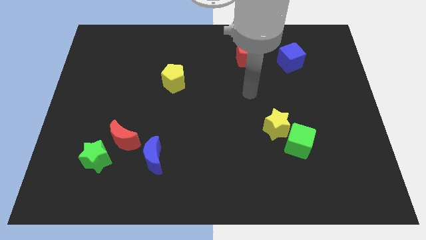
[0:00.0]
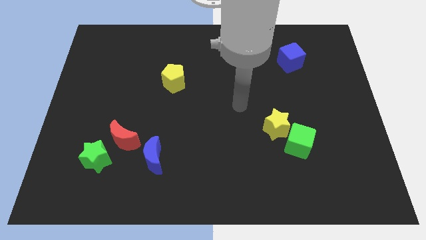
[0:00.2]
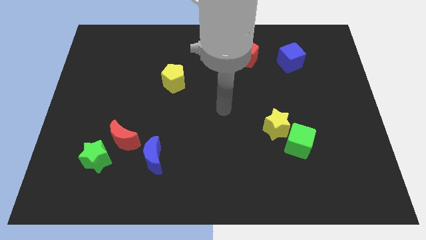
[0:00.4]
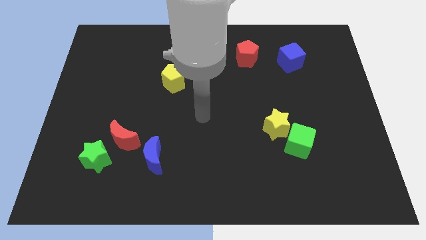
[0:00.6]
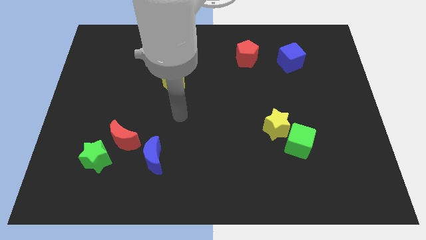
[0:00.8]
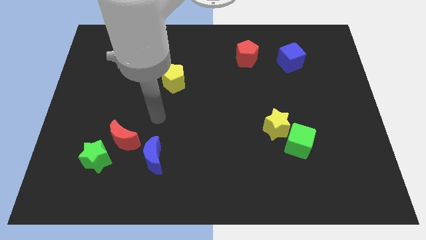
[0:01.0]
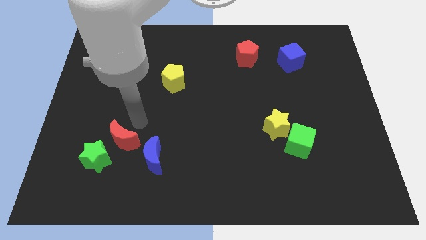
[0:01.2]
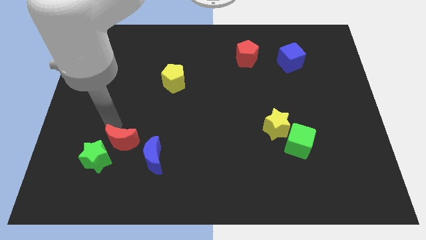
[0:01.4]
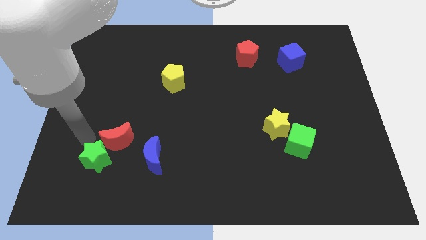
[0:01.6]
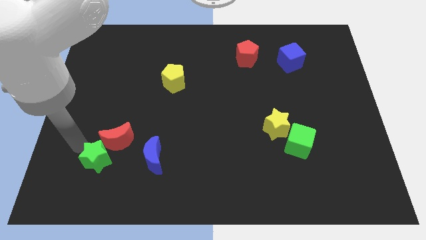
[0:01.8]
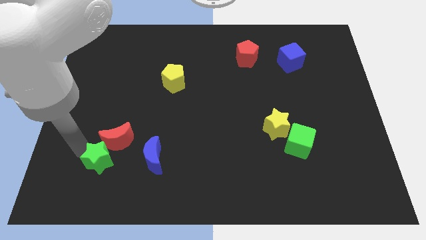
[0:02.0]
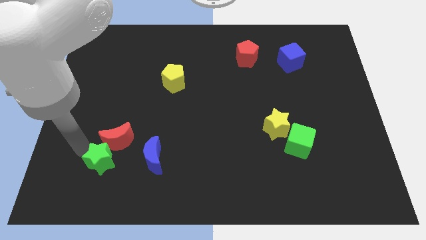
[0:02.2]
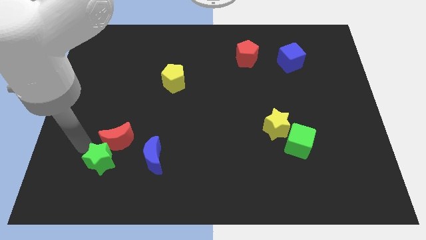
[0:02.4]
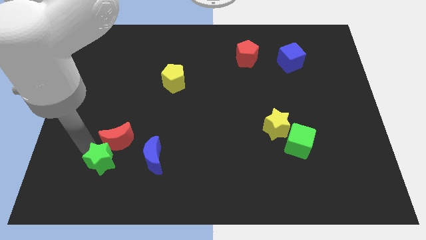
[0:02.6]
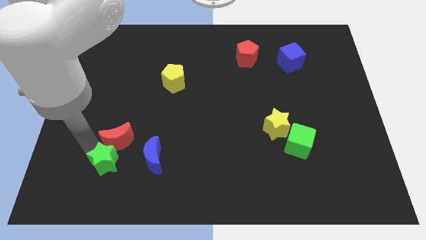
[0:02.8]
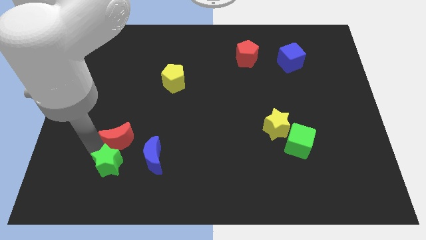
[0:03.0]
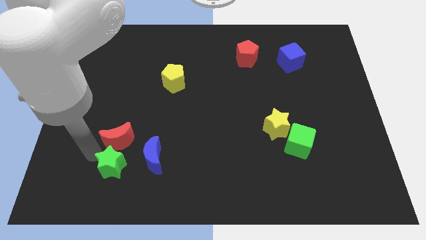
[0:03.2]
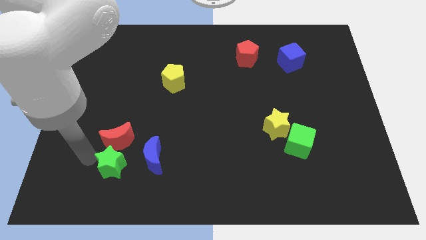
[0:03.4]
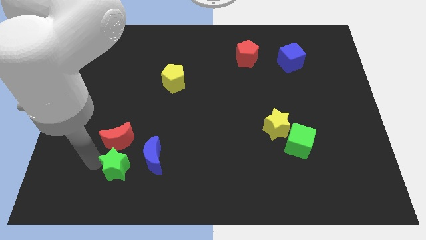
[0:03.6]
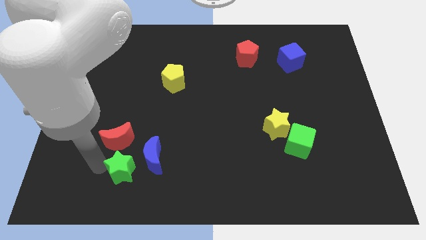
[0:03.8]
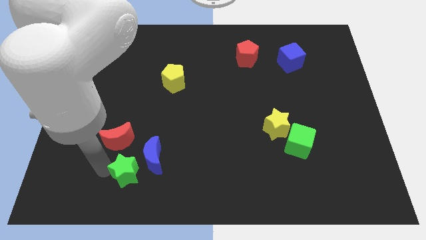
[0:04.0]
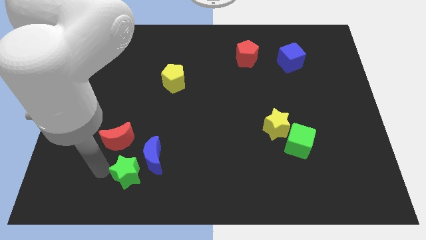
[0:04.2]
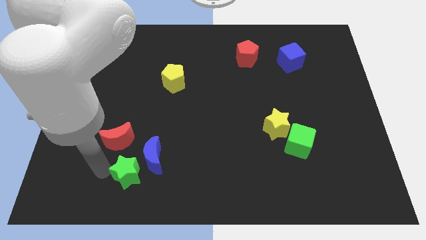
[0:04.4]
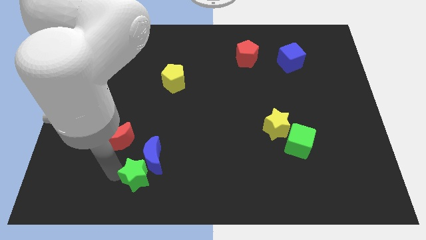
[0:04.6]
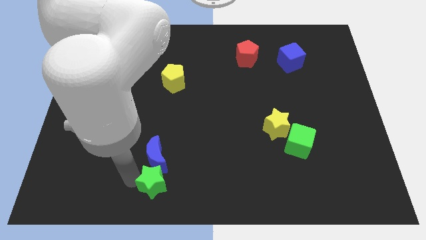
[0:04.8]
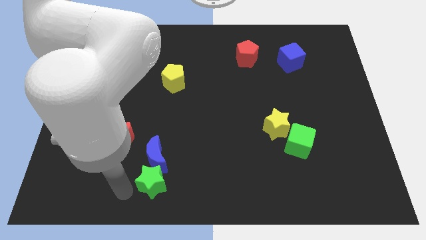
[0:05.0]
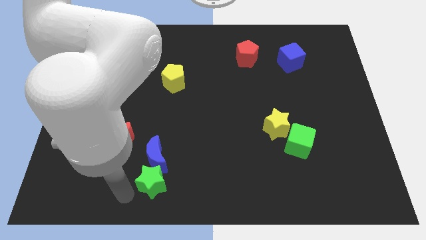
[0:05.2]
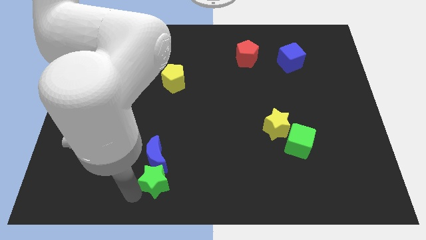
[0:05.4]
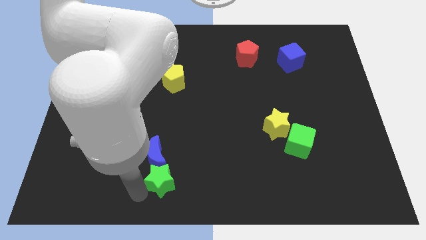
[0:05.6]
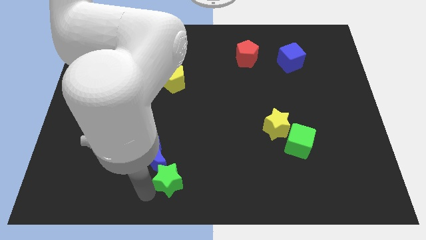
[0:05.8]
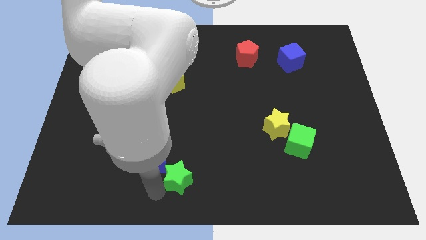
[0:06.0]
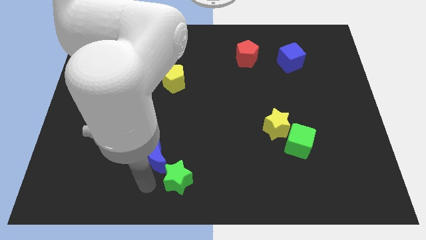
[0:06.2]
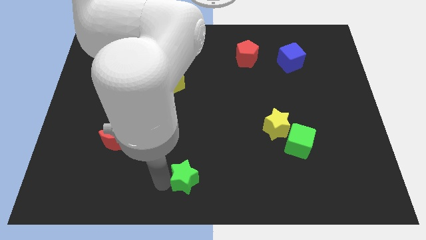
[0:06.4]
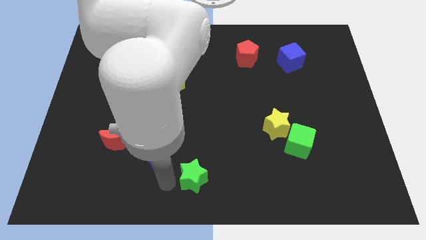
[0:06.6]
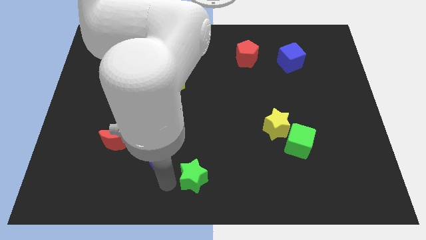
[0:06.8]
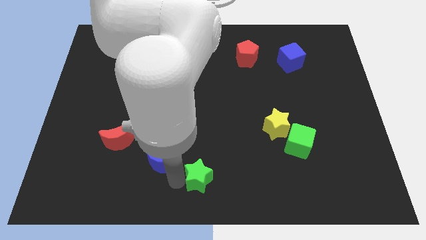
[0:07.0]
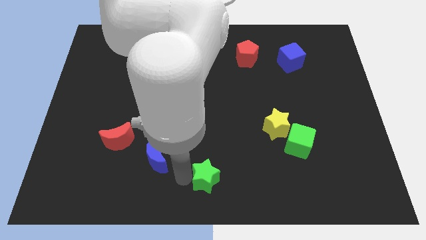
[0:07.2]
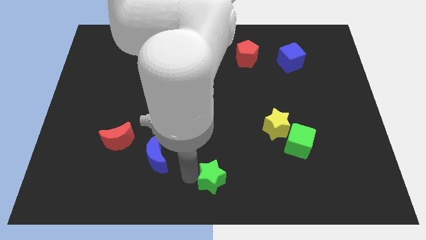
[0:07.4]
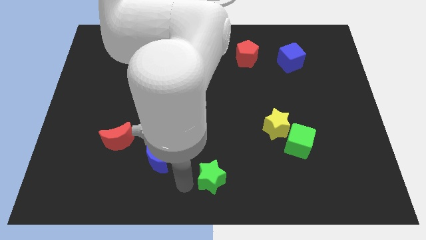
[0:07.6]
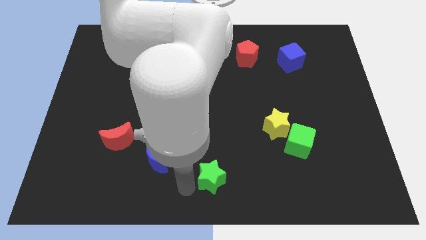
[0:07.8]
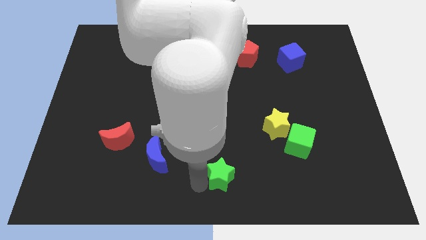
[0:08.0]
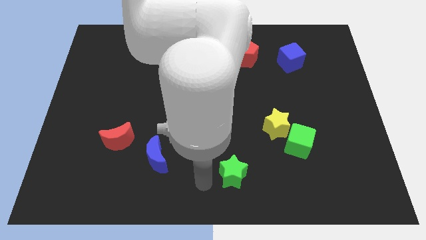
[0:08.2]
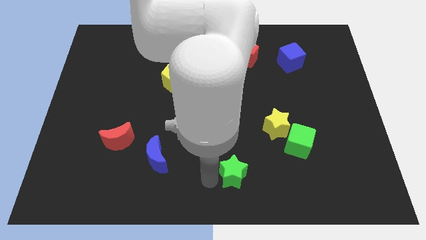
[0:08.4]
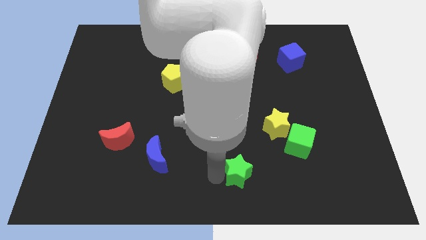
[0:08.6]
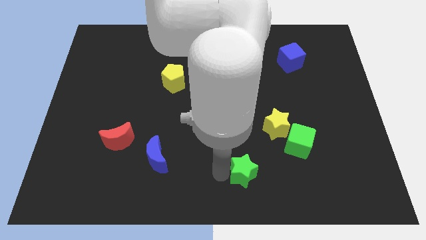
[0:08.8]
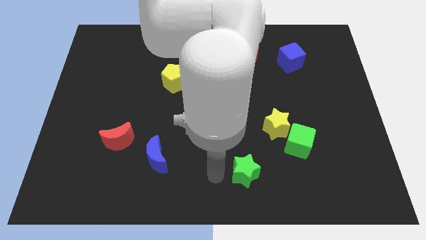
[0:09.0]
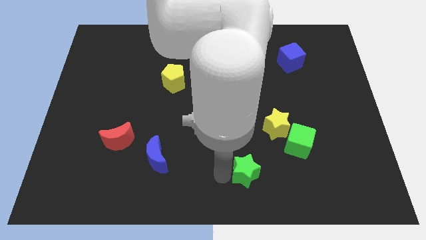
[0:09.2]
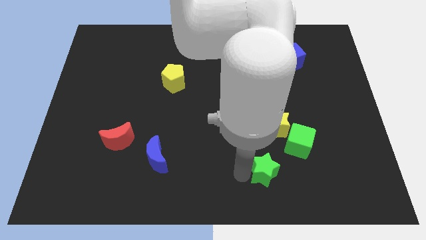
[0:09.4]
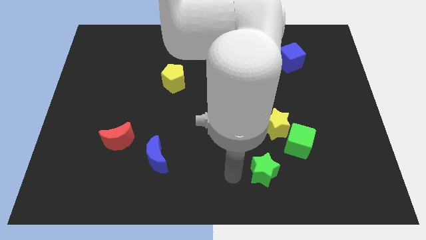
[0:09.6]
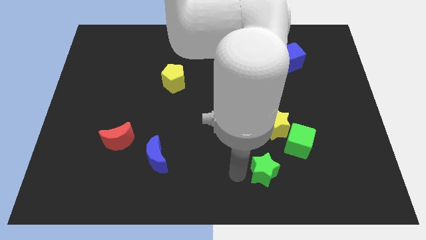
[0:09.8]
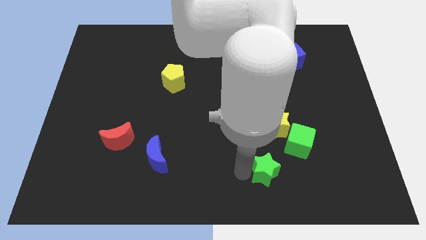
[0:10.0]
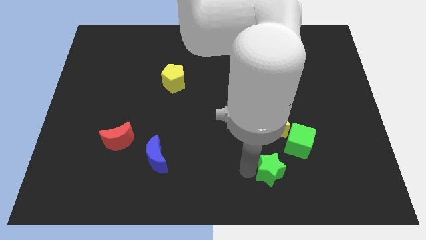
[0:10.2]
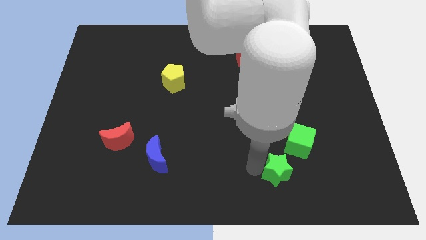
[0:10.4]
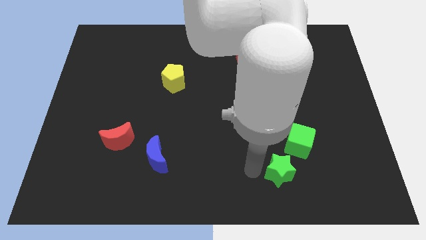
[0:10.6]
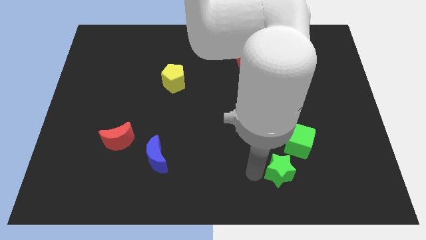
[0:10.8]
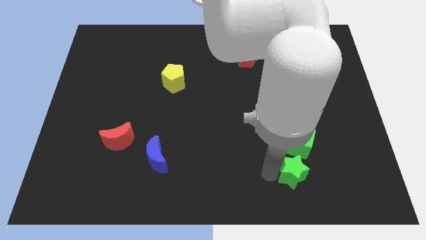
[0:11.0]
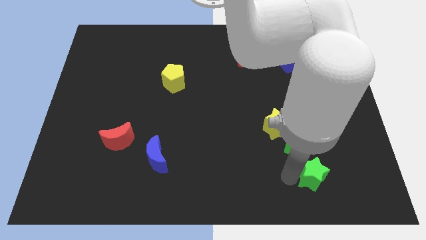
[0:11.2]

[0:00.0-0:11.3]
put the green star to the bottom right of the green cube

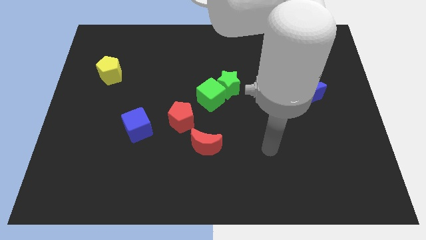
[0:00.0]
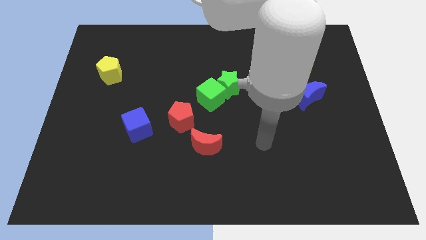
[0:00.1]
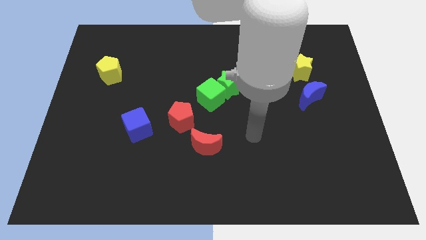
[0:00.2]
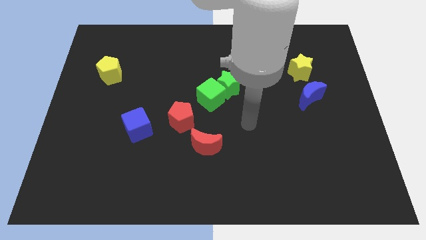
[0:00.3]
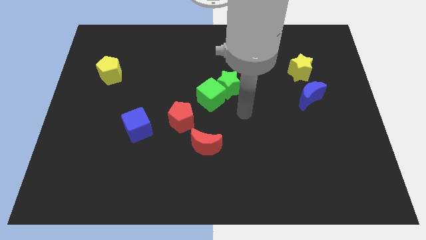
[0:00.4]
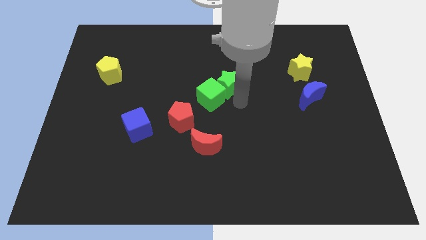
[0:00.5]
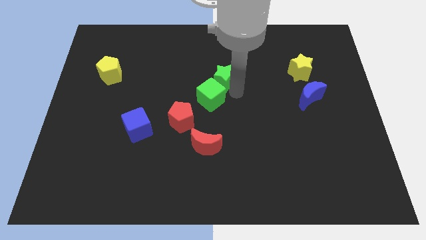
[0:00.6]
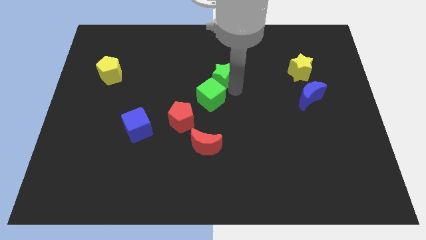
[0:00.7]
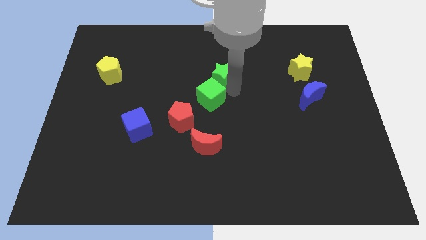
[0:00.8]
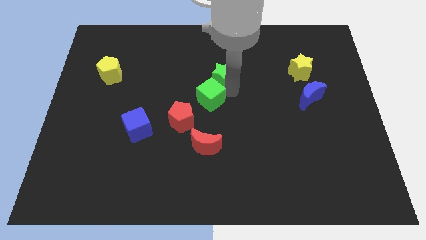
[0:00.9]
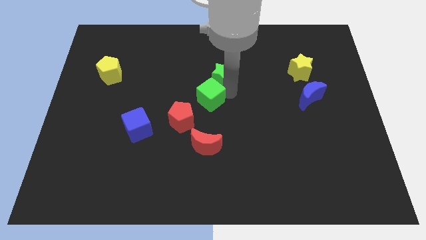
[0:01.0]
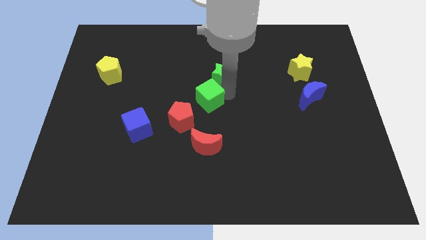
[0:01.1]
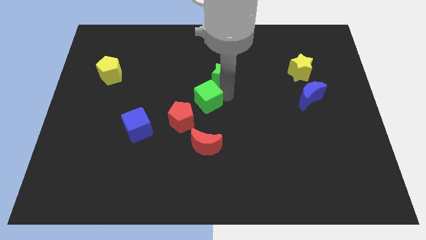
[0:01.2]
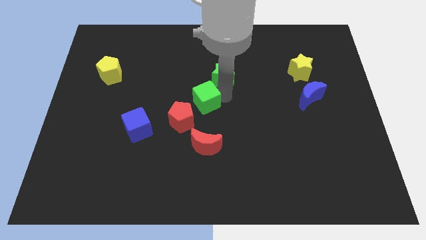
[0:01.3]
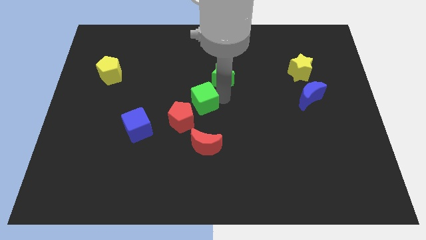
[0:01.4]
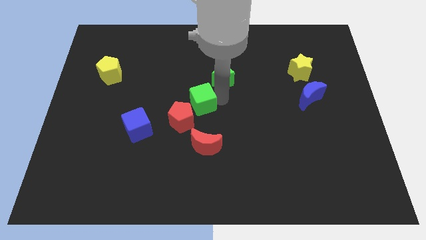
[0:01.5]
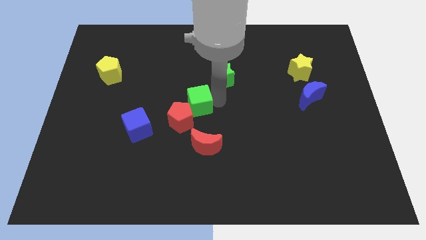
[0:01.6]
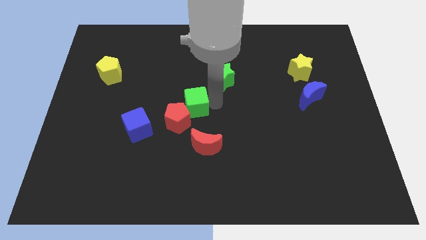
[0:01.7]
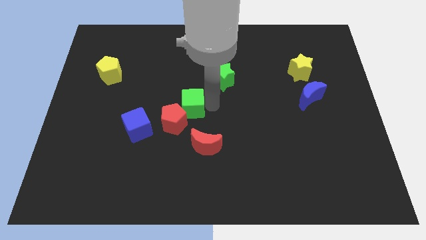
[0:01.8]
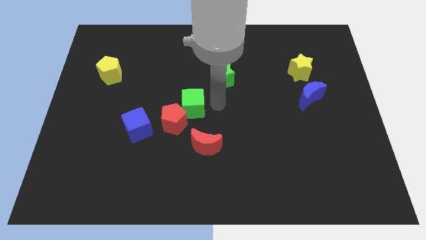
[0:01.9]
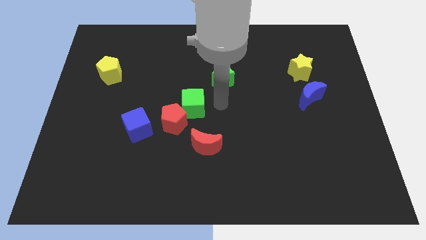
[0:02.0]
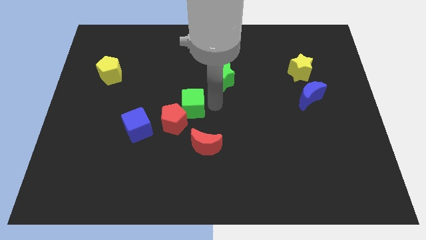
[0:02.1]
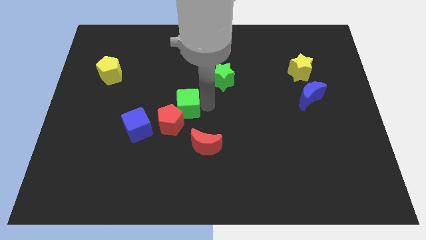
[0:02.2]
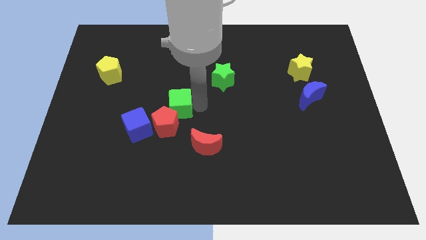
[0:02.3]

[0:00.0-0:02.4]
slide the green cube diagonally up and to the right of the blue cube
